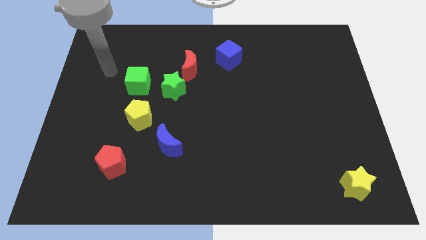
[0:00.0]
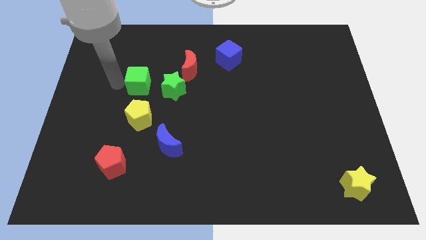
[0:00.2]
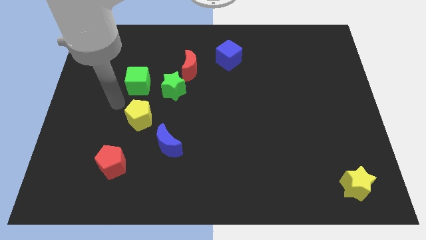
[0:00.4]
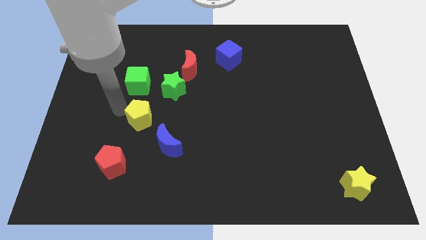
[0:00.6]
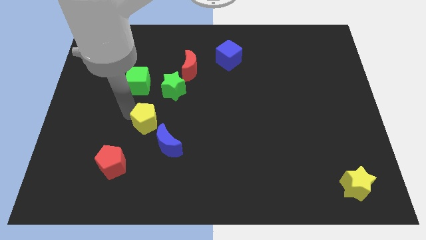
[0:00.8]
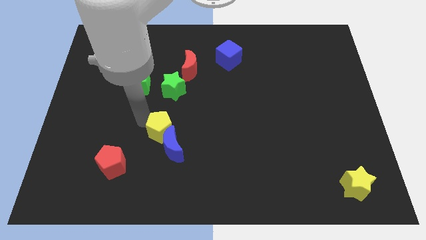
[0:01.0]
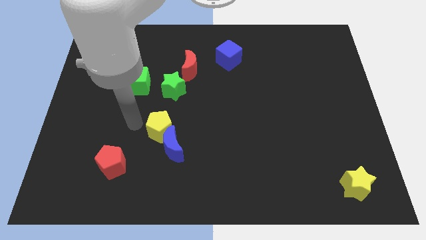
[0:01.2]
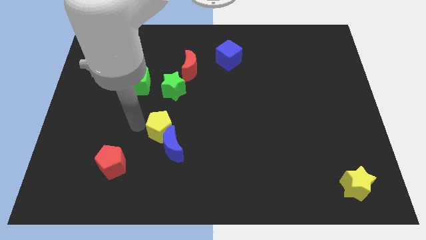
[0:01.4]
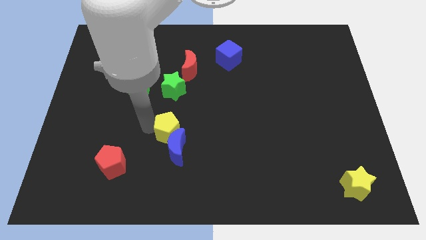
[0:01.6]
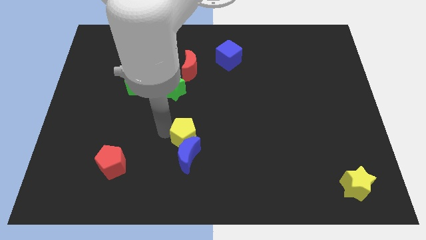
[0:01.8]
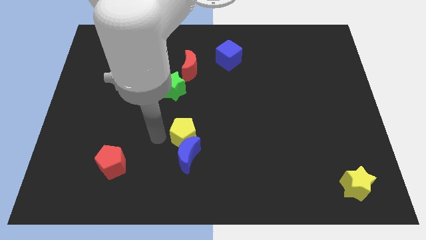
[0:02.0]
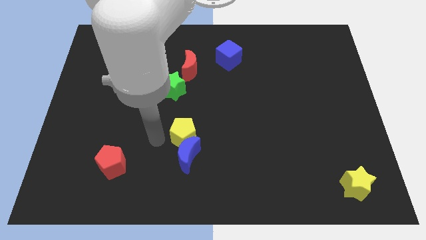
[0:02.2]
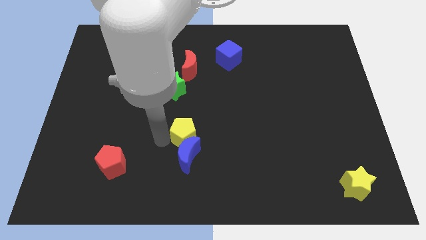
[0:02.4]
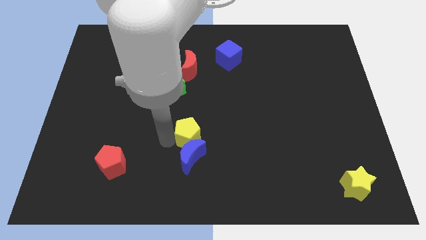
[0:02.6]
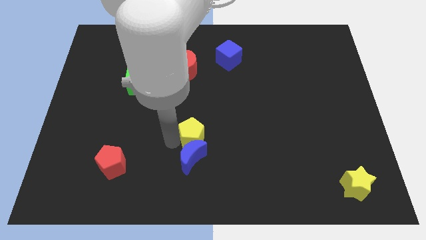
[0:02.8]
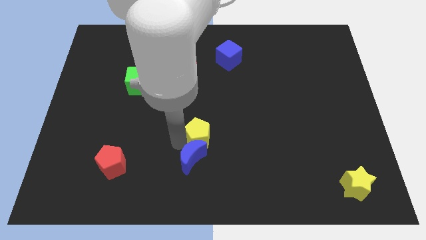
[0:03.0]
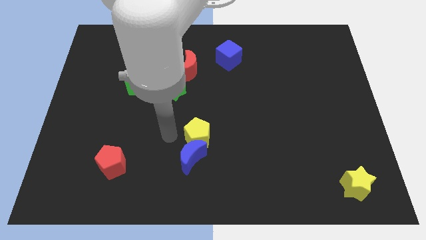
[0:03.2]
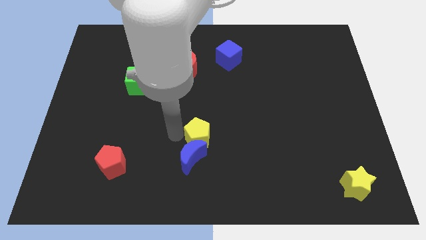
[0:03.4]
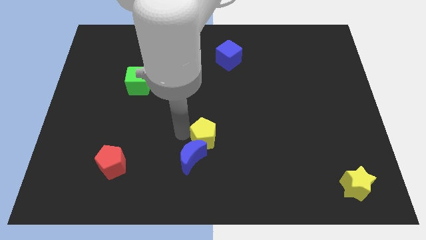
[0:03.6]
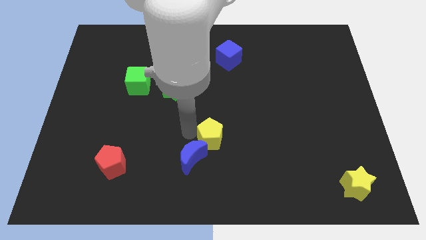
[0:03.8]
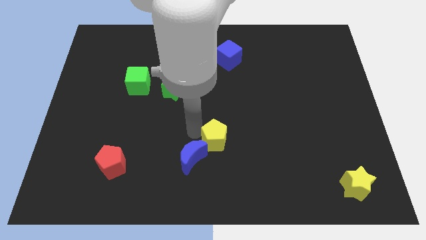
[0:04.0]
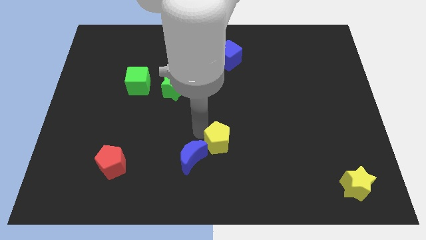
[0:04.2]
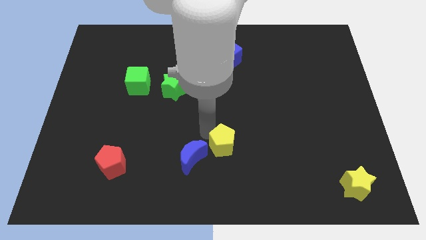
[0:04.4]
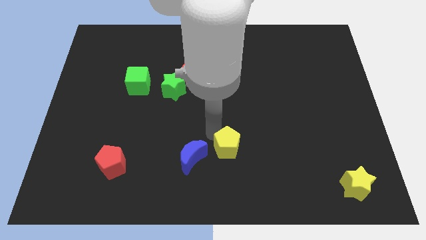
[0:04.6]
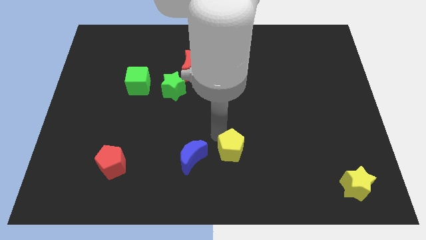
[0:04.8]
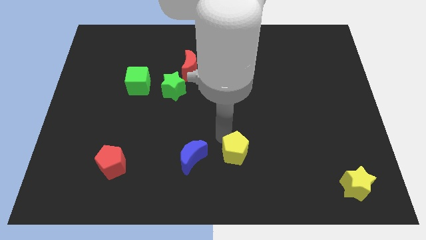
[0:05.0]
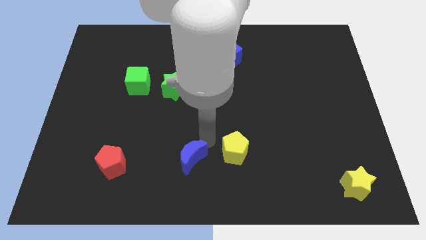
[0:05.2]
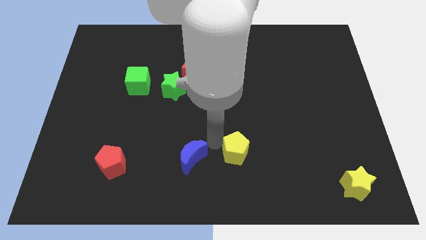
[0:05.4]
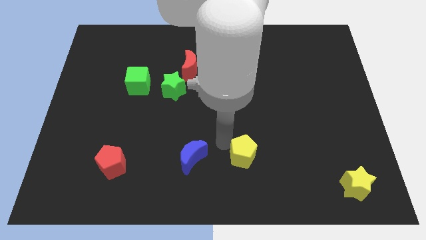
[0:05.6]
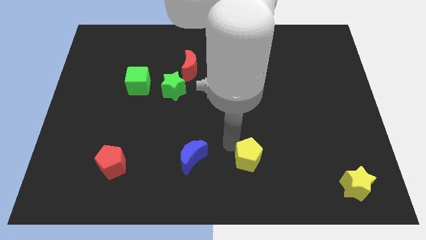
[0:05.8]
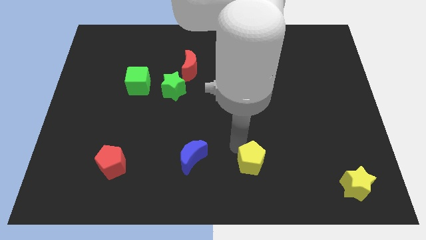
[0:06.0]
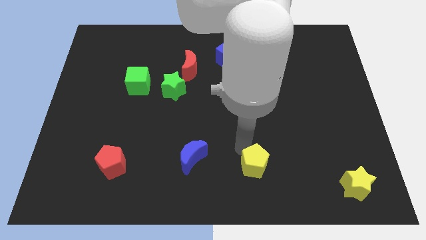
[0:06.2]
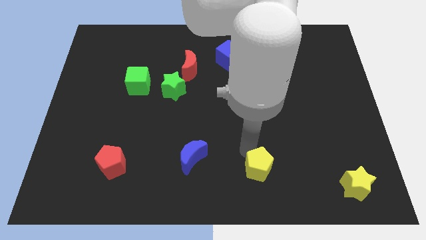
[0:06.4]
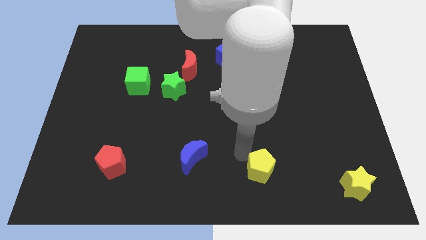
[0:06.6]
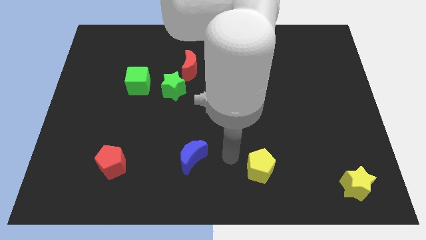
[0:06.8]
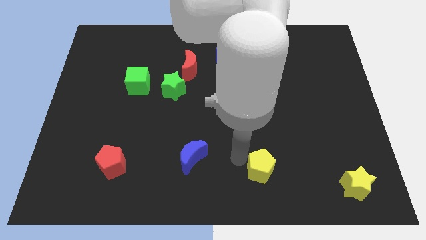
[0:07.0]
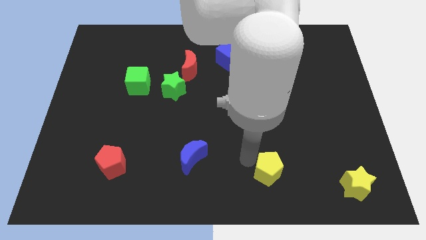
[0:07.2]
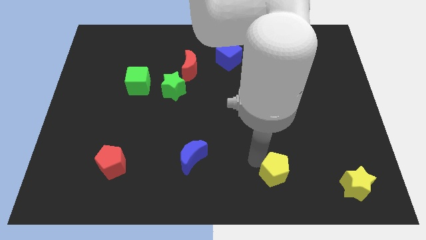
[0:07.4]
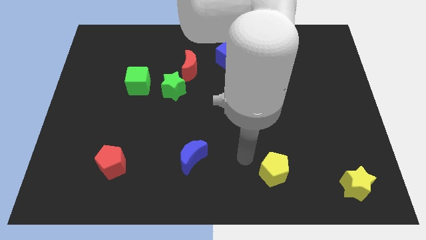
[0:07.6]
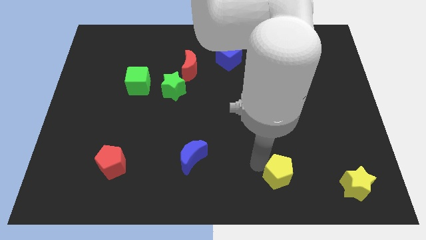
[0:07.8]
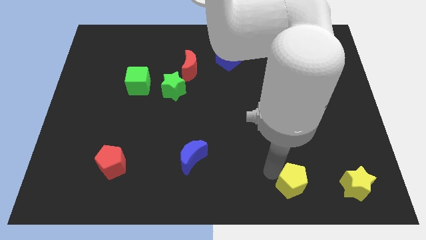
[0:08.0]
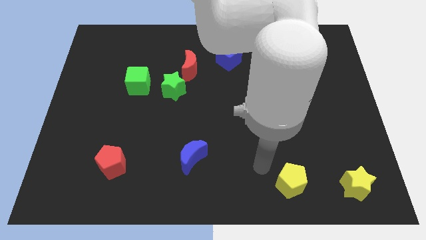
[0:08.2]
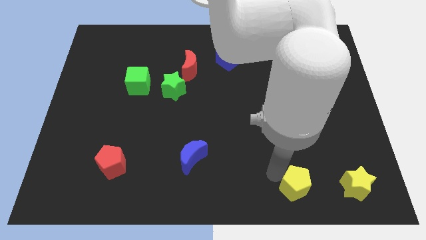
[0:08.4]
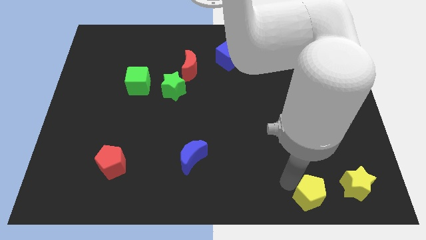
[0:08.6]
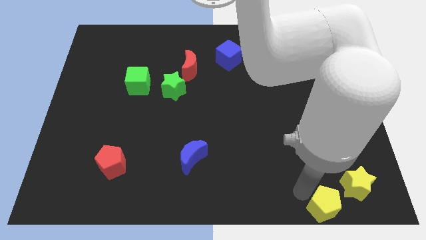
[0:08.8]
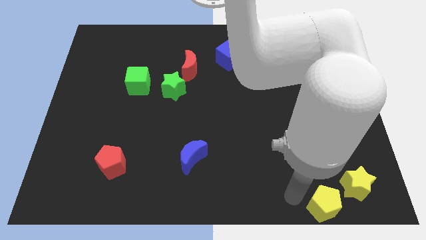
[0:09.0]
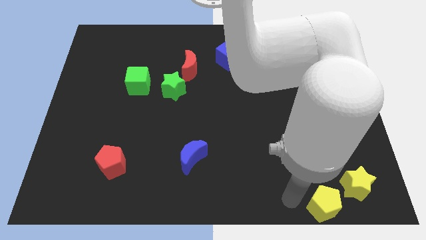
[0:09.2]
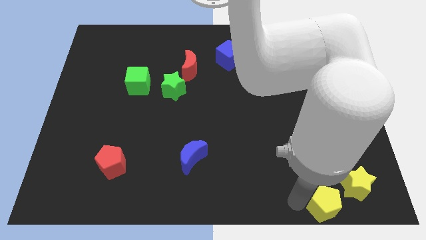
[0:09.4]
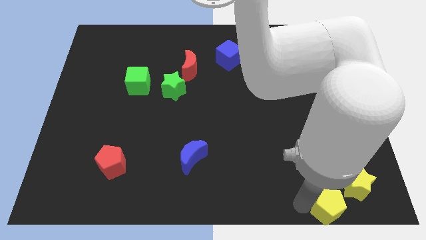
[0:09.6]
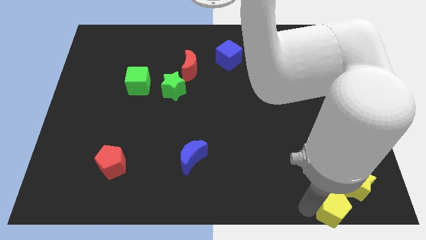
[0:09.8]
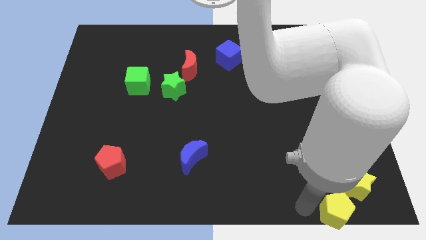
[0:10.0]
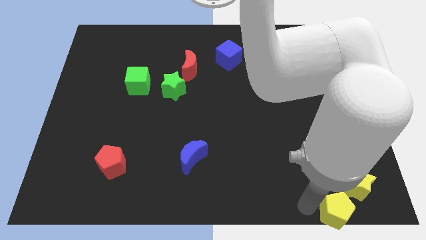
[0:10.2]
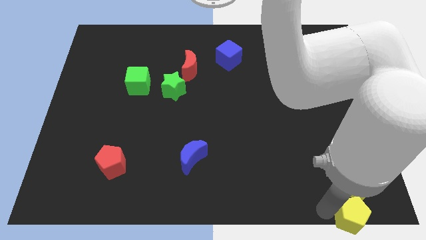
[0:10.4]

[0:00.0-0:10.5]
put the yellow pentagon to the bottom right

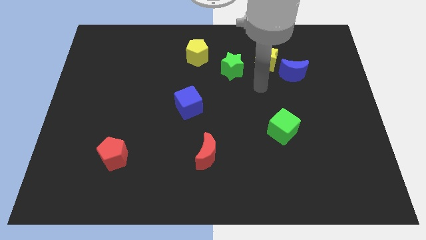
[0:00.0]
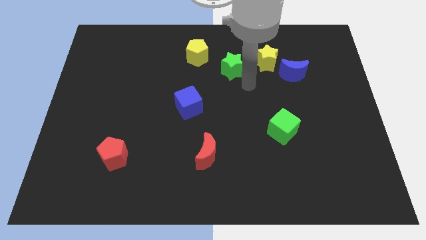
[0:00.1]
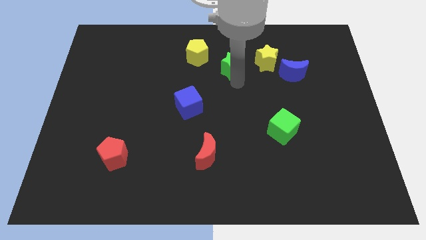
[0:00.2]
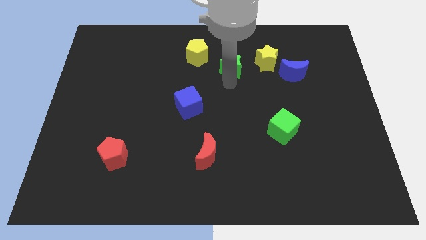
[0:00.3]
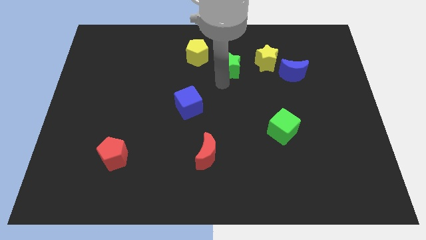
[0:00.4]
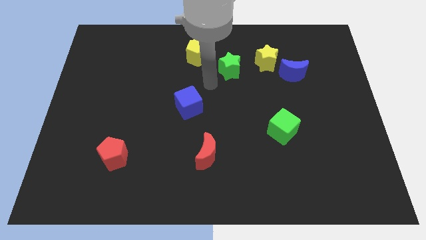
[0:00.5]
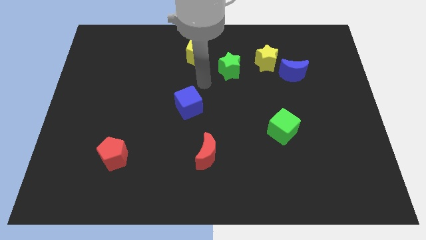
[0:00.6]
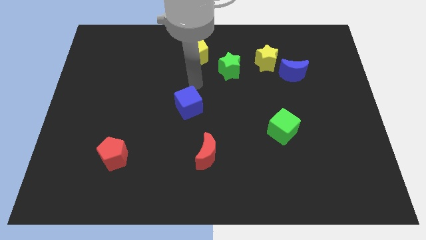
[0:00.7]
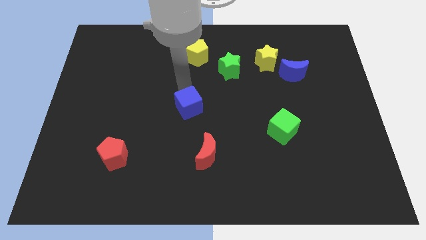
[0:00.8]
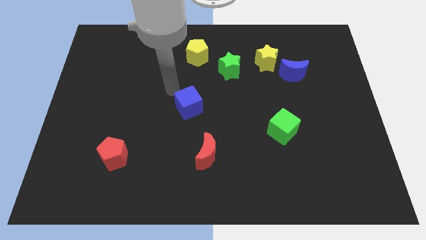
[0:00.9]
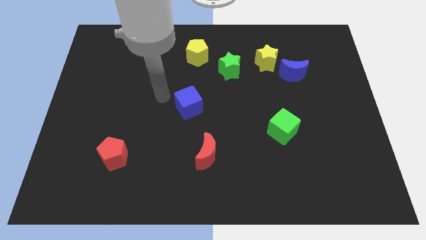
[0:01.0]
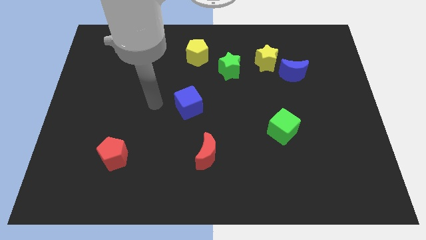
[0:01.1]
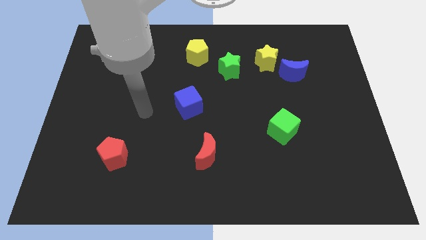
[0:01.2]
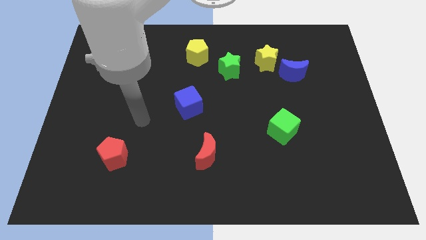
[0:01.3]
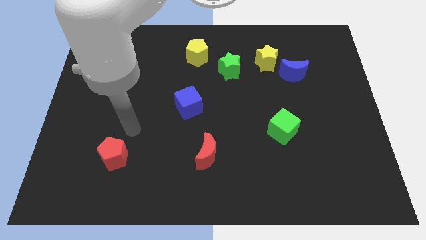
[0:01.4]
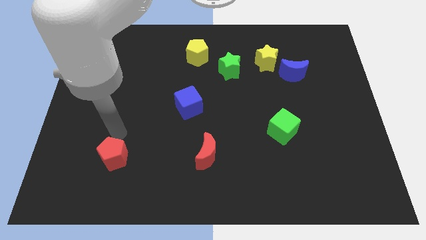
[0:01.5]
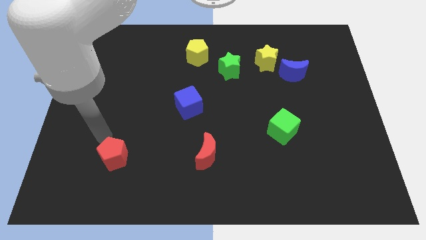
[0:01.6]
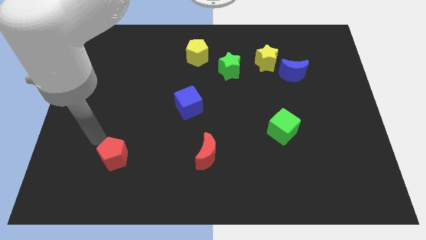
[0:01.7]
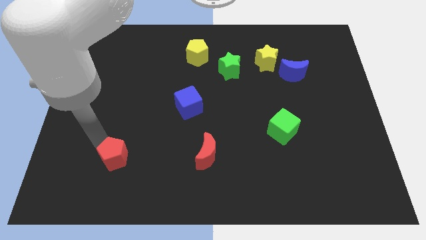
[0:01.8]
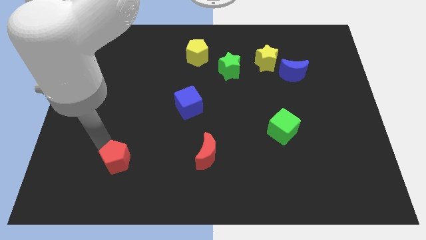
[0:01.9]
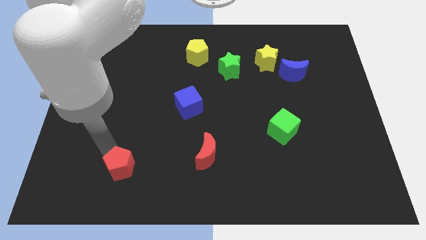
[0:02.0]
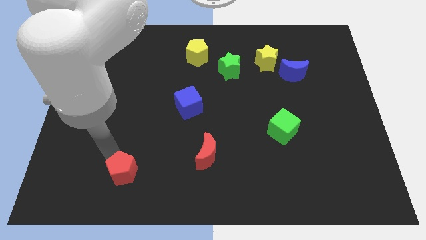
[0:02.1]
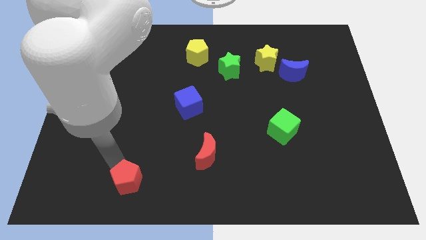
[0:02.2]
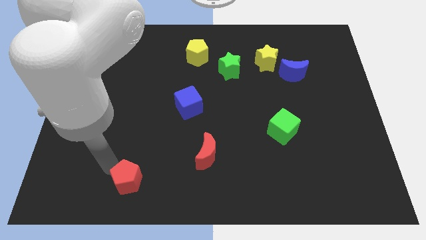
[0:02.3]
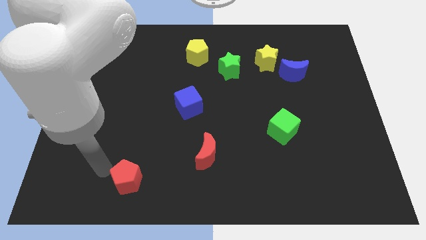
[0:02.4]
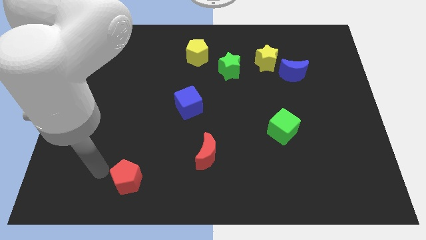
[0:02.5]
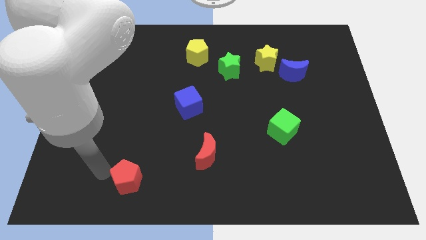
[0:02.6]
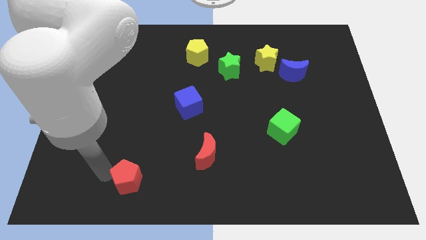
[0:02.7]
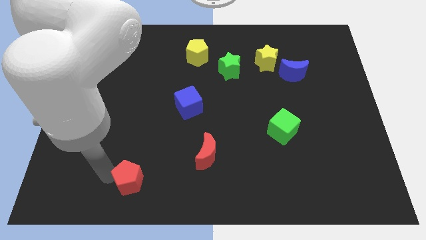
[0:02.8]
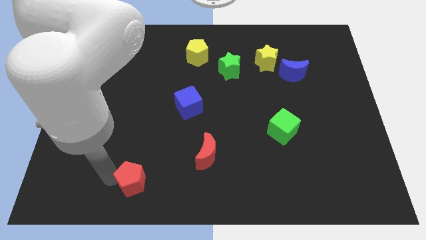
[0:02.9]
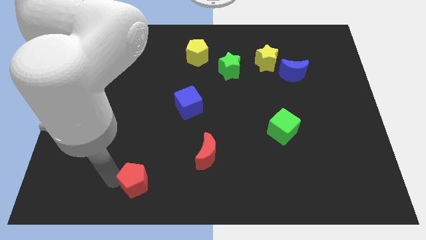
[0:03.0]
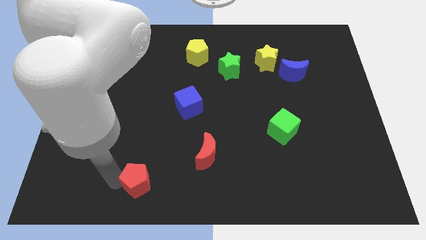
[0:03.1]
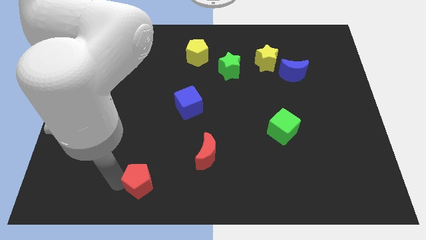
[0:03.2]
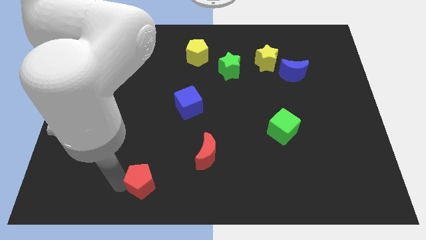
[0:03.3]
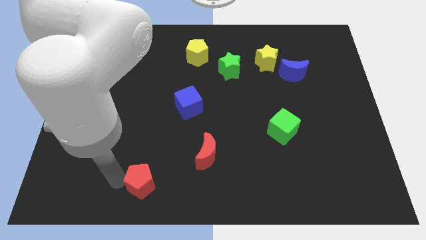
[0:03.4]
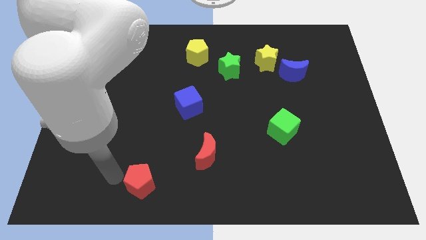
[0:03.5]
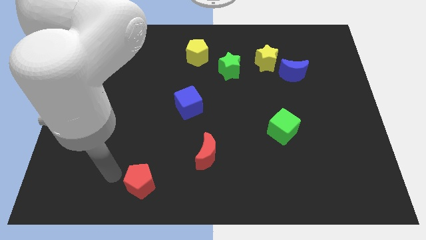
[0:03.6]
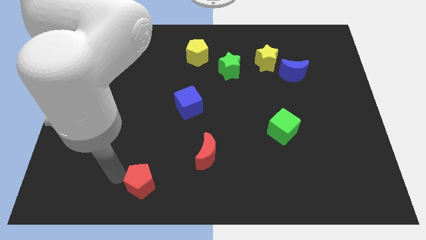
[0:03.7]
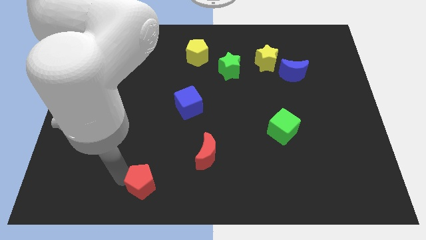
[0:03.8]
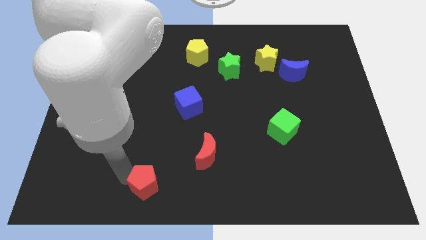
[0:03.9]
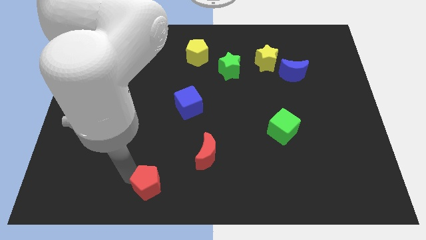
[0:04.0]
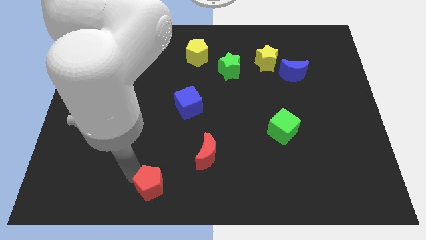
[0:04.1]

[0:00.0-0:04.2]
move the red pentagon to the bottom
